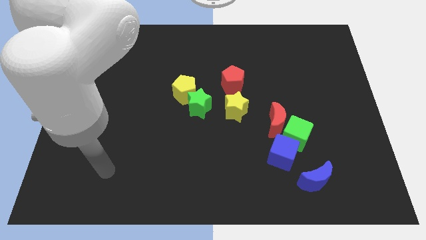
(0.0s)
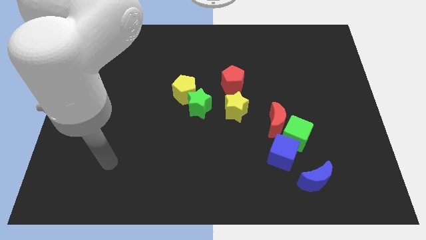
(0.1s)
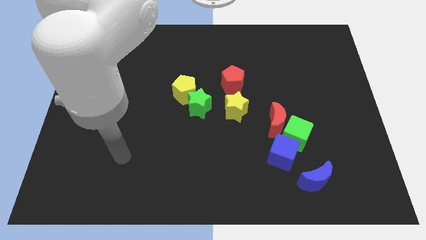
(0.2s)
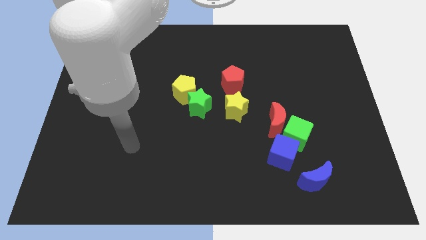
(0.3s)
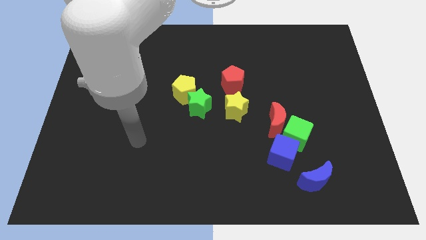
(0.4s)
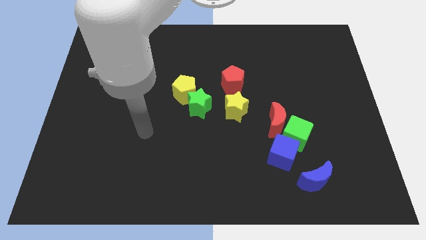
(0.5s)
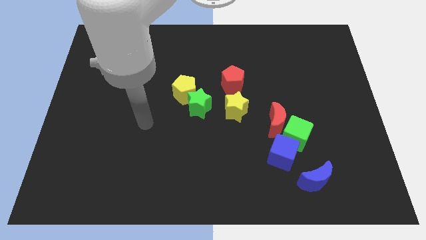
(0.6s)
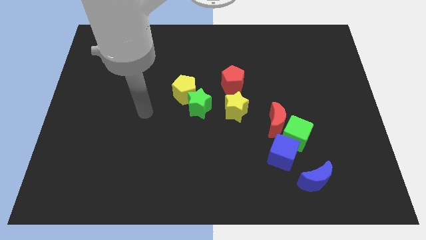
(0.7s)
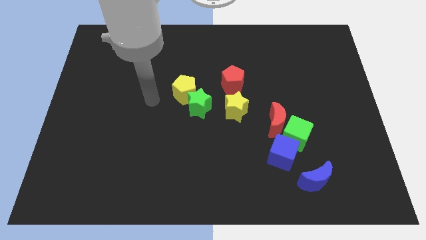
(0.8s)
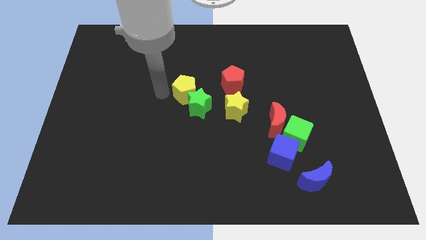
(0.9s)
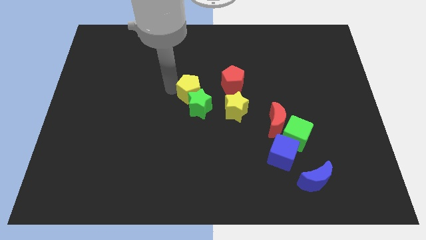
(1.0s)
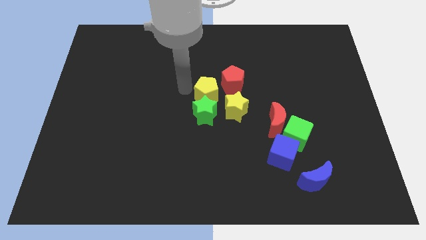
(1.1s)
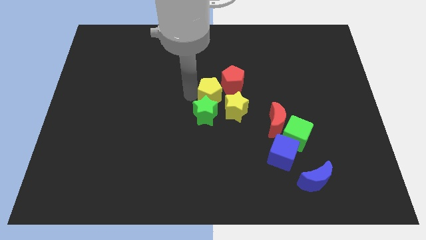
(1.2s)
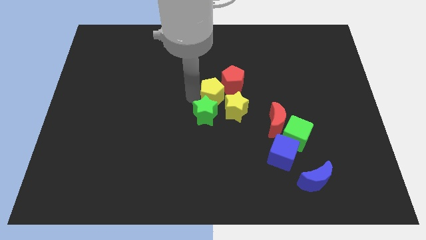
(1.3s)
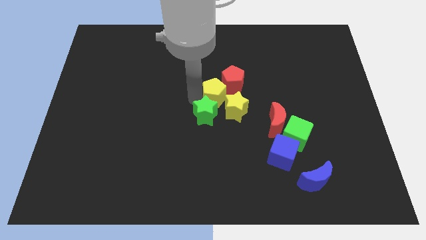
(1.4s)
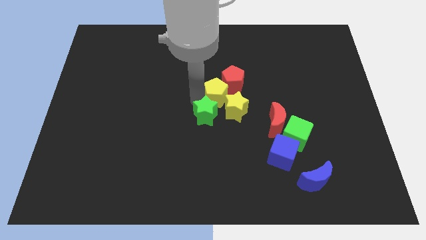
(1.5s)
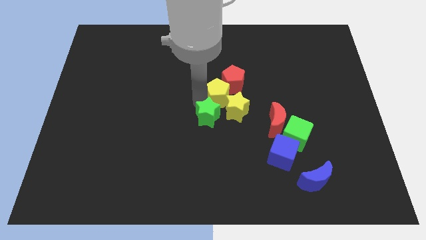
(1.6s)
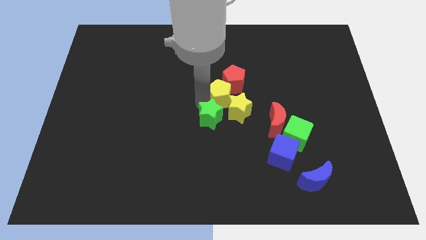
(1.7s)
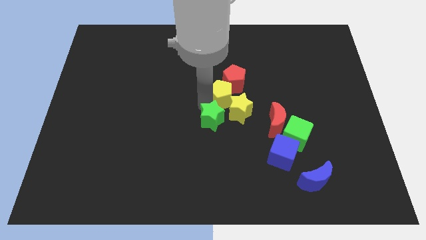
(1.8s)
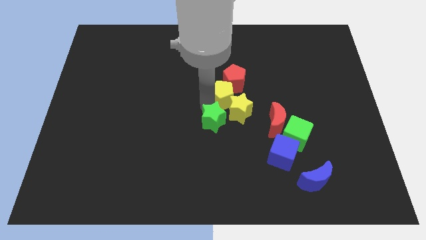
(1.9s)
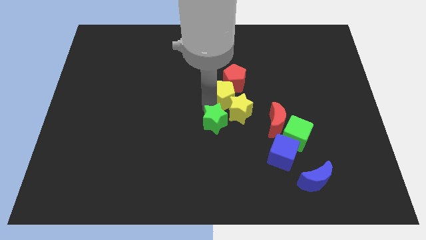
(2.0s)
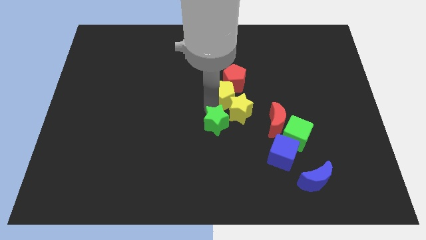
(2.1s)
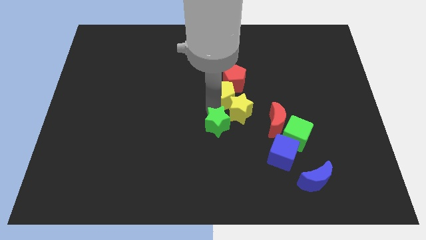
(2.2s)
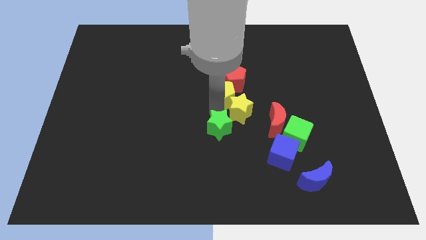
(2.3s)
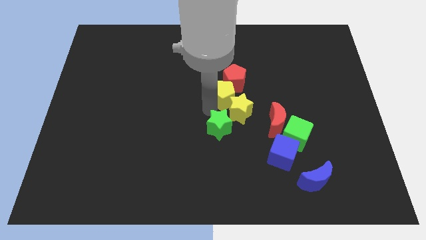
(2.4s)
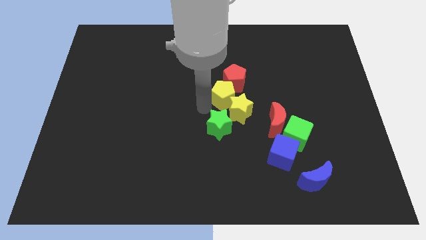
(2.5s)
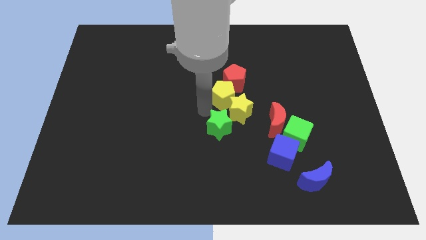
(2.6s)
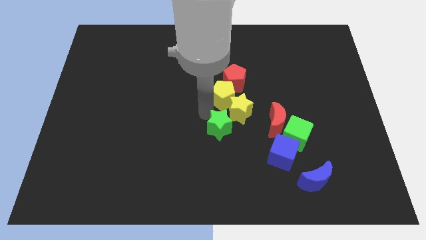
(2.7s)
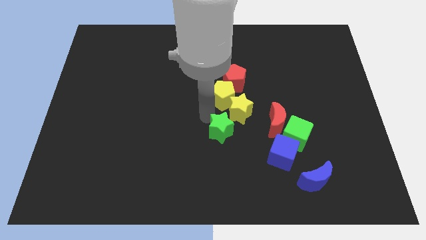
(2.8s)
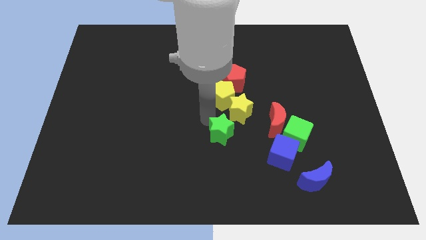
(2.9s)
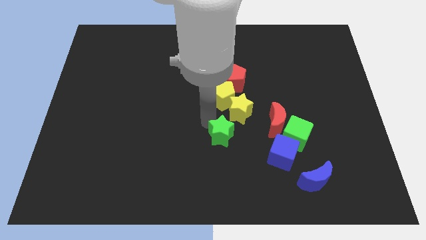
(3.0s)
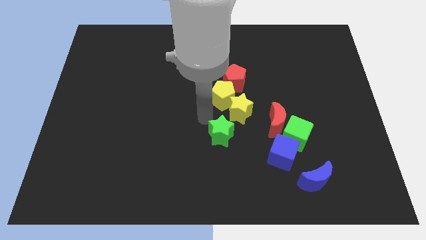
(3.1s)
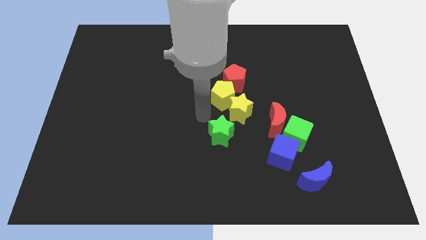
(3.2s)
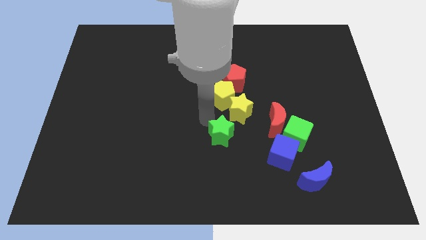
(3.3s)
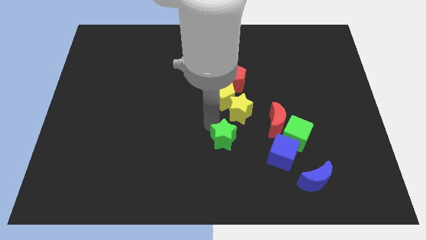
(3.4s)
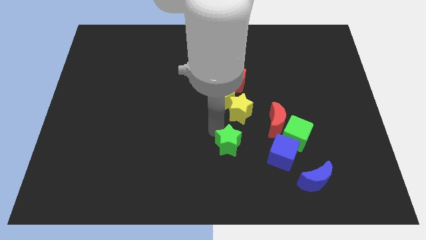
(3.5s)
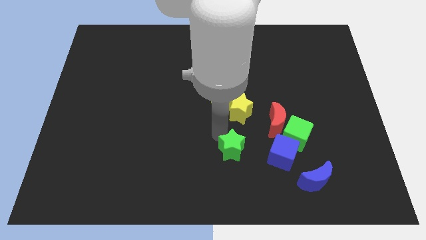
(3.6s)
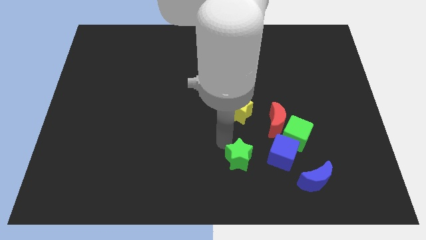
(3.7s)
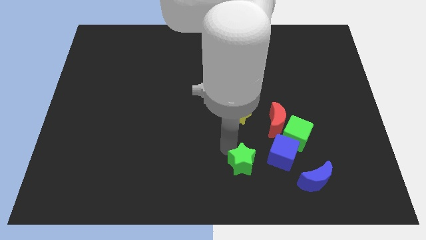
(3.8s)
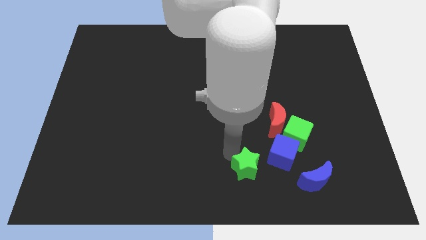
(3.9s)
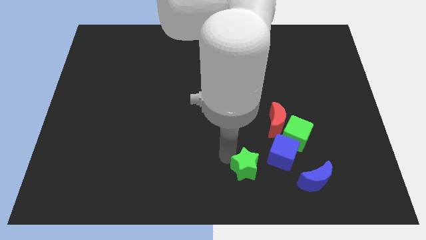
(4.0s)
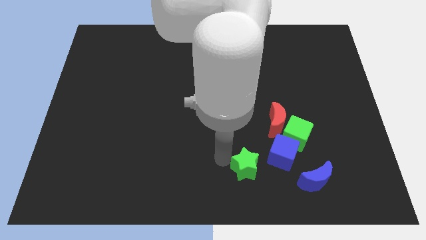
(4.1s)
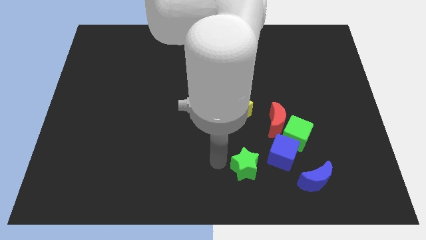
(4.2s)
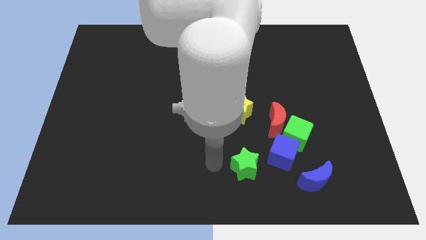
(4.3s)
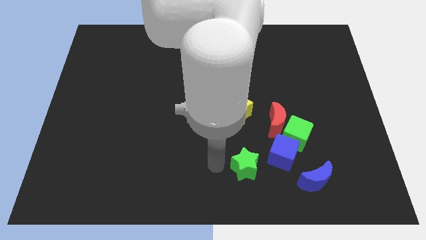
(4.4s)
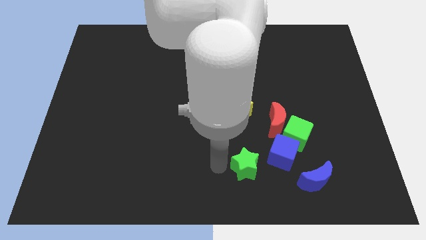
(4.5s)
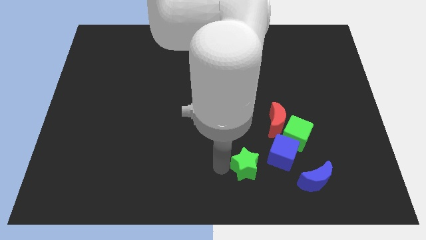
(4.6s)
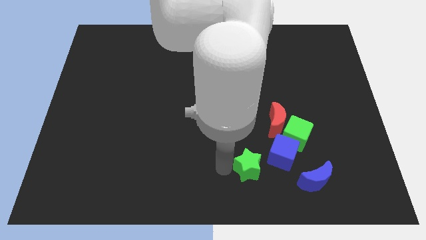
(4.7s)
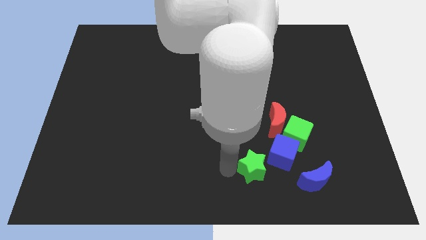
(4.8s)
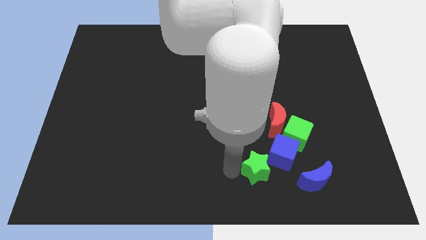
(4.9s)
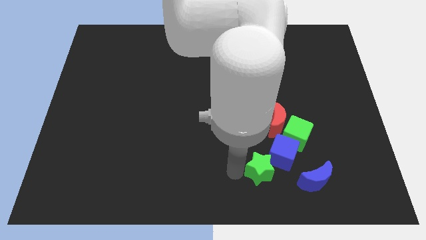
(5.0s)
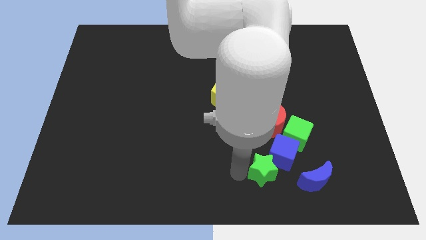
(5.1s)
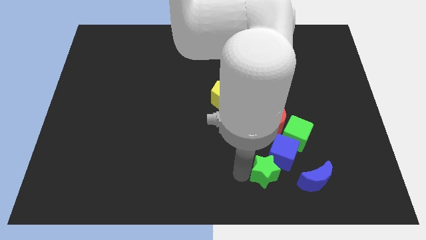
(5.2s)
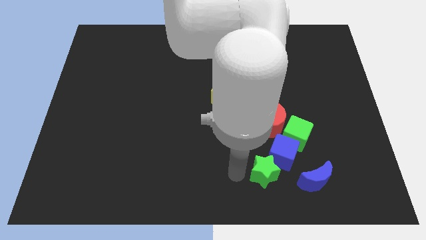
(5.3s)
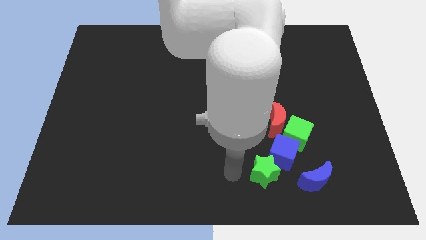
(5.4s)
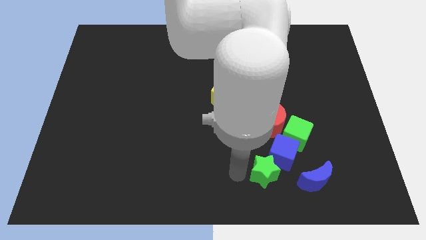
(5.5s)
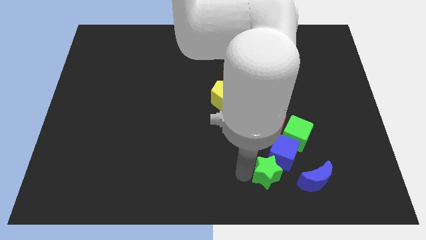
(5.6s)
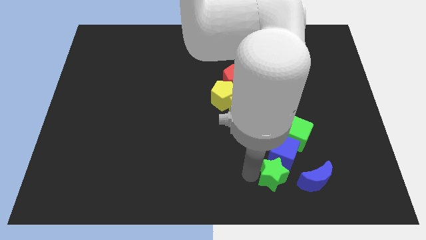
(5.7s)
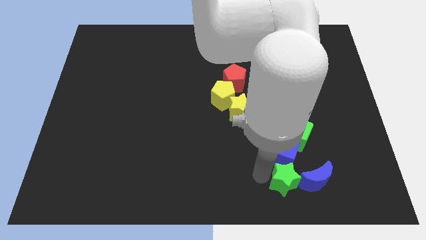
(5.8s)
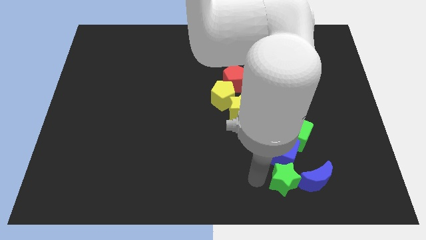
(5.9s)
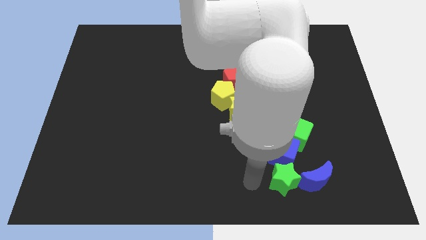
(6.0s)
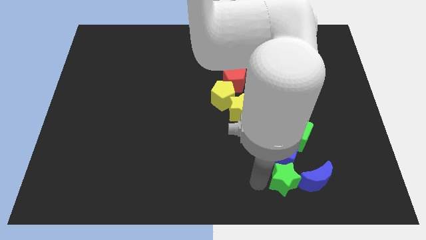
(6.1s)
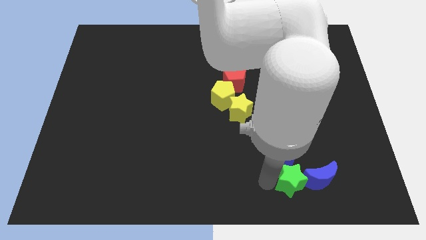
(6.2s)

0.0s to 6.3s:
push the green star towards the blue moon

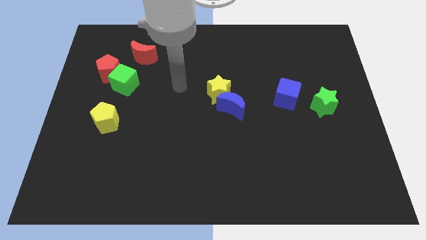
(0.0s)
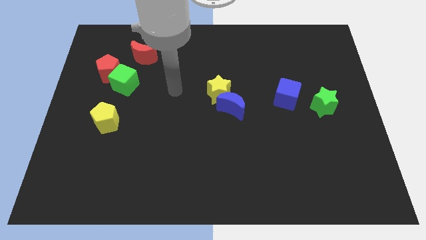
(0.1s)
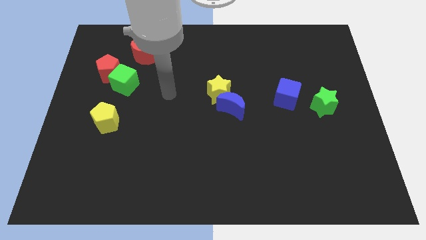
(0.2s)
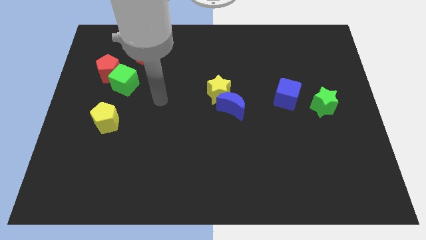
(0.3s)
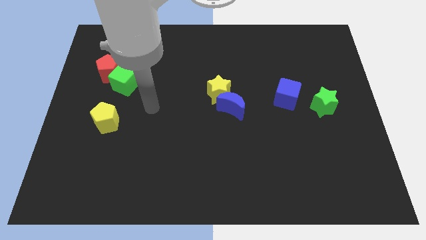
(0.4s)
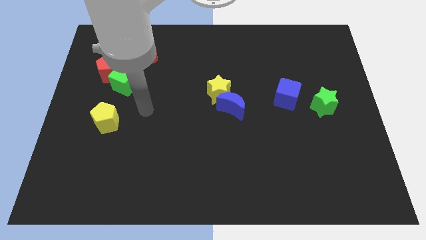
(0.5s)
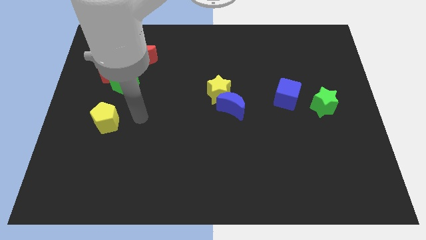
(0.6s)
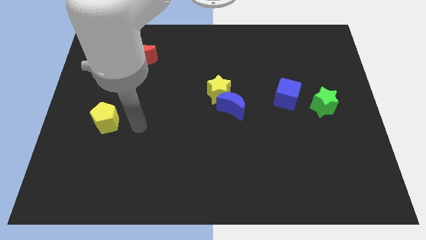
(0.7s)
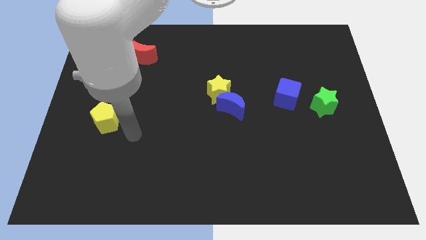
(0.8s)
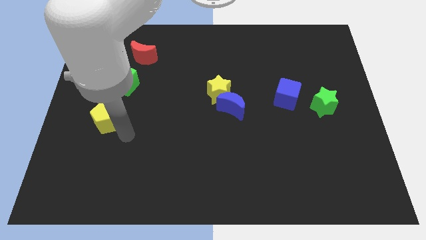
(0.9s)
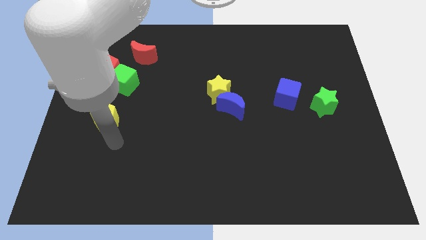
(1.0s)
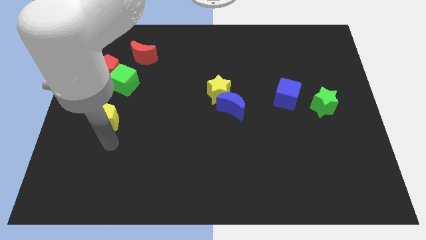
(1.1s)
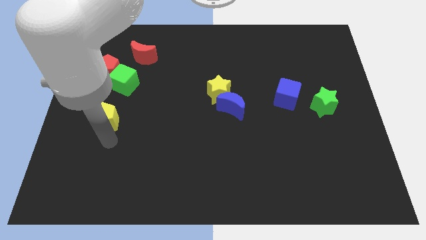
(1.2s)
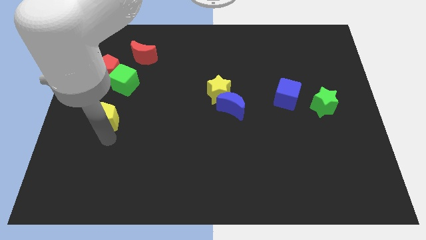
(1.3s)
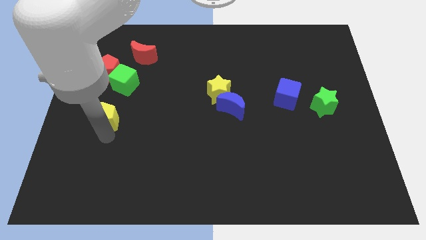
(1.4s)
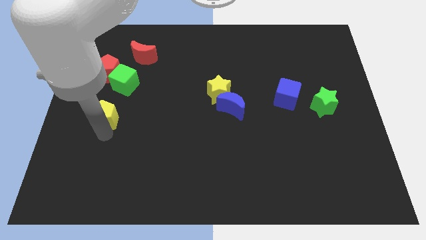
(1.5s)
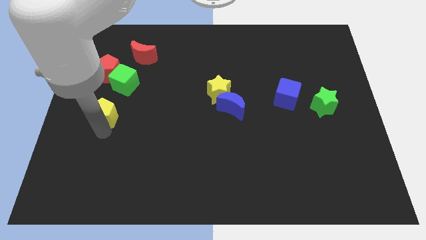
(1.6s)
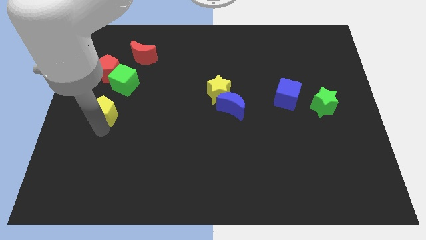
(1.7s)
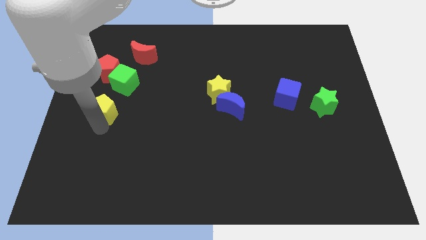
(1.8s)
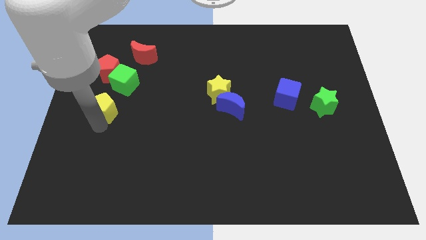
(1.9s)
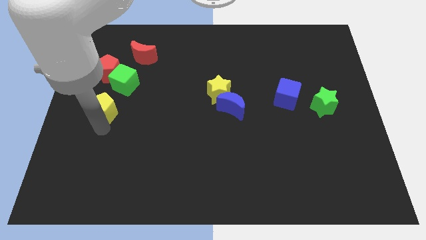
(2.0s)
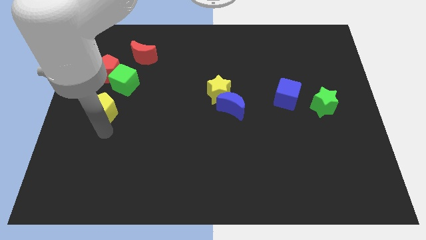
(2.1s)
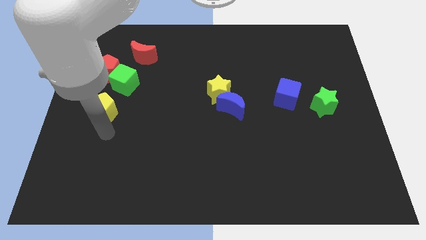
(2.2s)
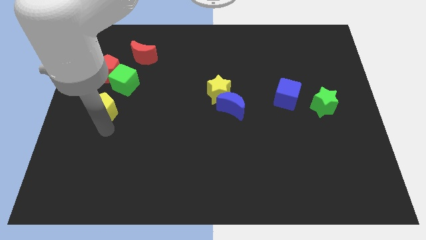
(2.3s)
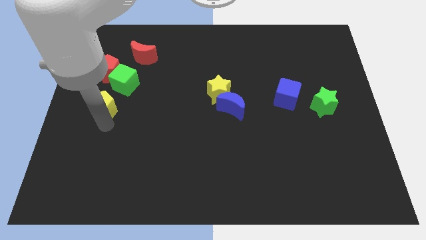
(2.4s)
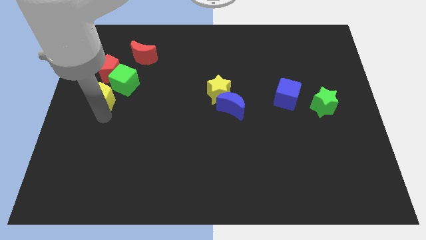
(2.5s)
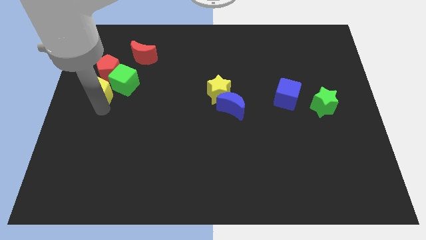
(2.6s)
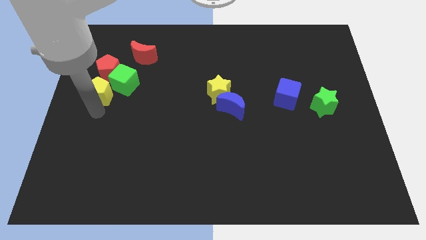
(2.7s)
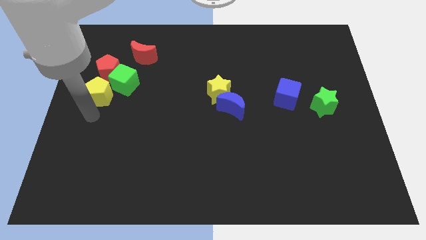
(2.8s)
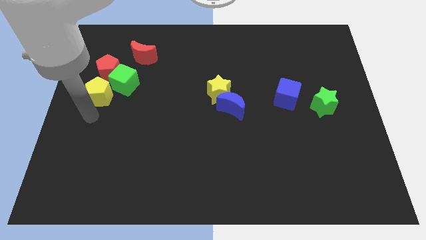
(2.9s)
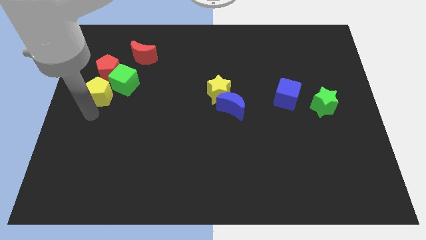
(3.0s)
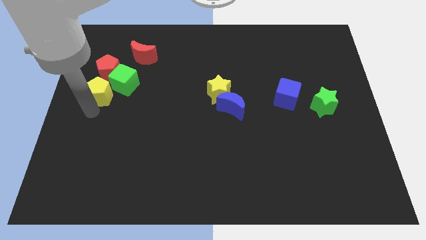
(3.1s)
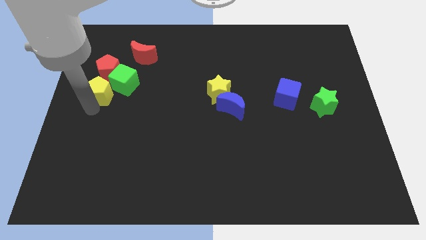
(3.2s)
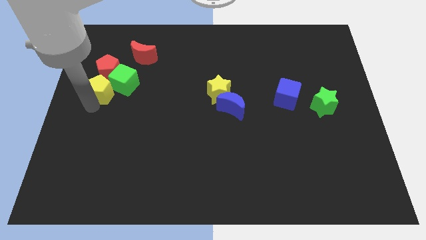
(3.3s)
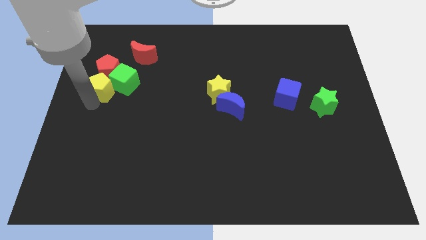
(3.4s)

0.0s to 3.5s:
push the yellow pentagon next to the red pentagon
